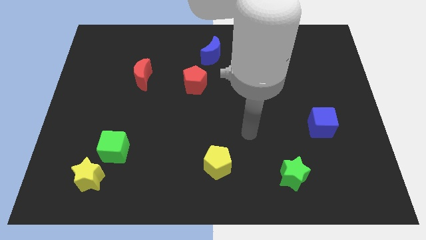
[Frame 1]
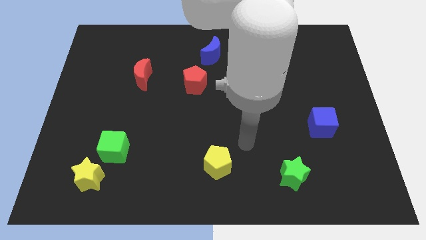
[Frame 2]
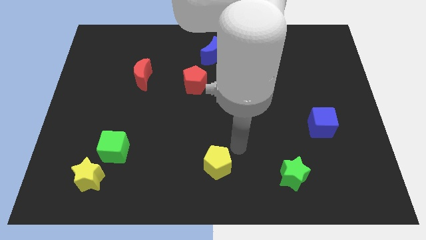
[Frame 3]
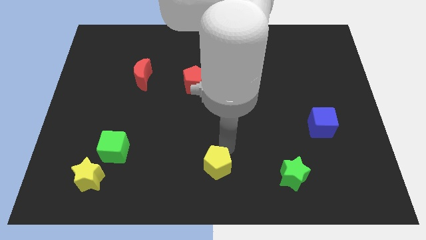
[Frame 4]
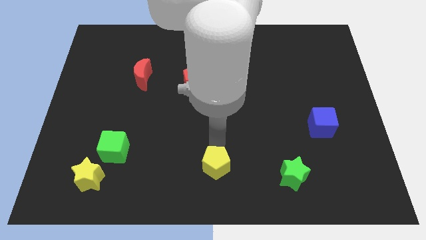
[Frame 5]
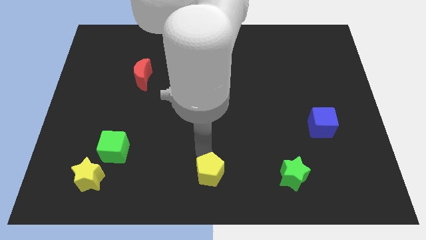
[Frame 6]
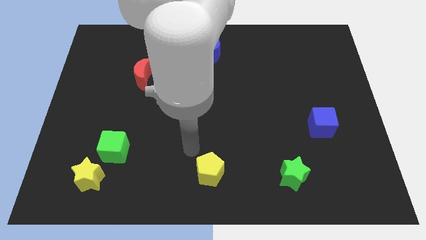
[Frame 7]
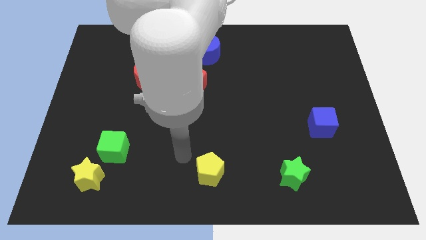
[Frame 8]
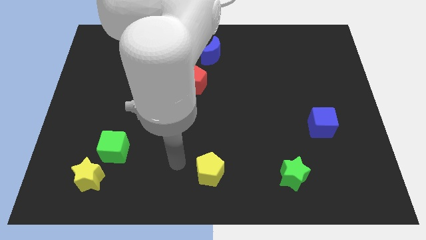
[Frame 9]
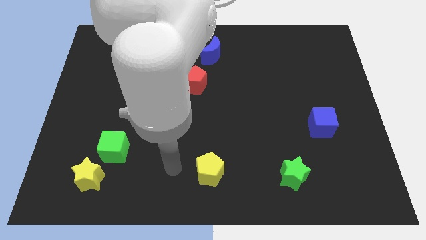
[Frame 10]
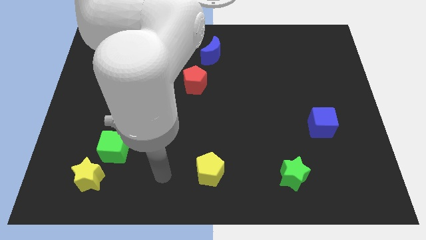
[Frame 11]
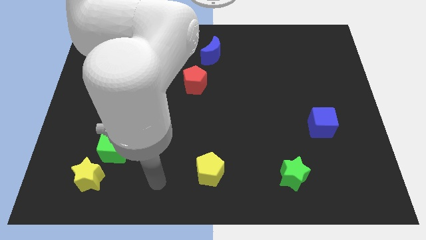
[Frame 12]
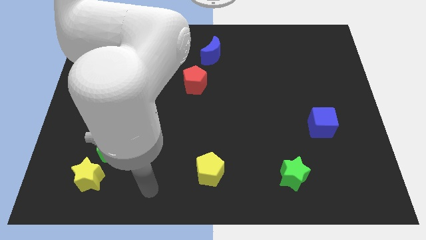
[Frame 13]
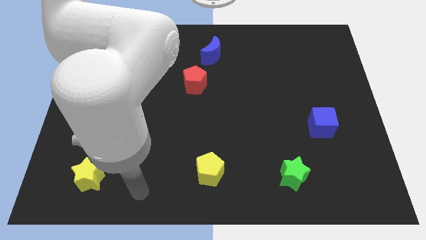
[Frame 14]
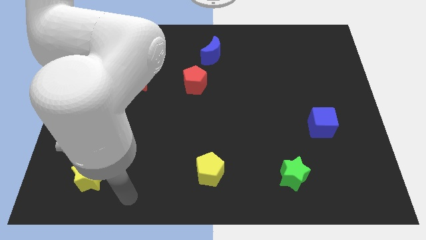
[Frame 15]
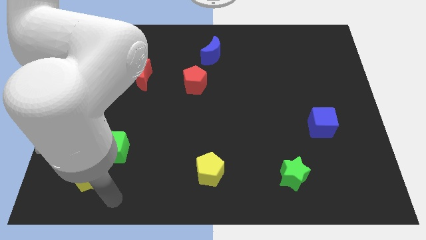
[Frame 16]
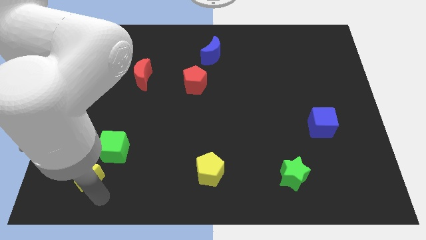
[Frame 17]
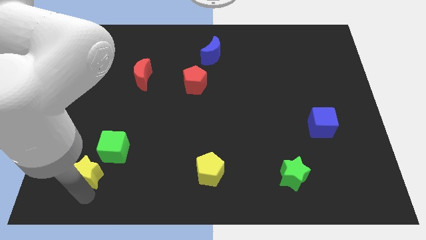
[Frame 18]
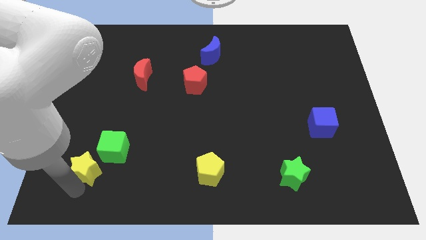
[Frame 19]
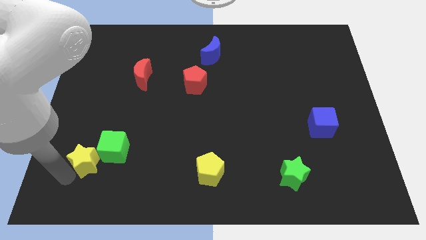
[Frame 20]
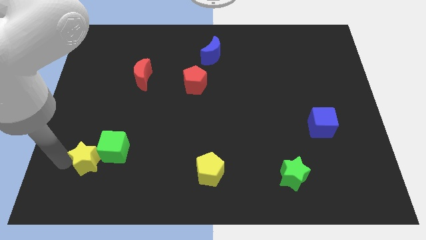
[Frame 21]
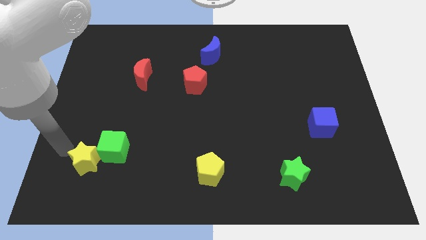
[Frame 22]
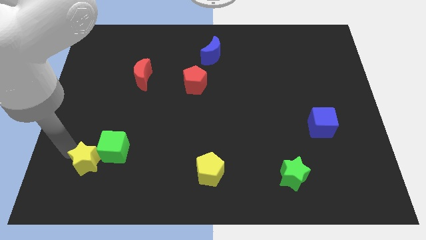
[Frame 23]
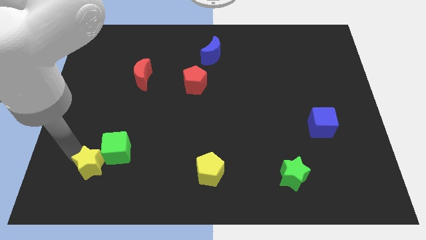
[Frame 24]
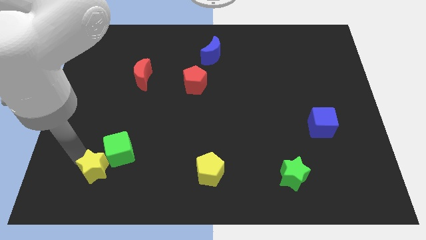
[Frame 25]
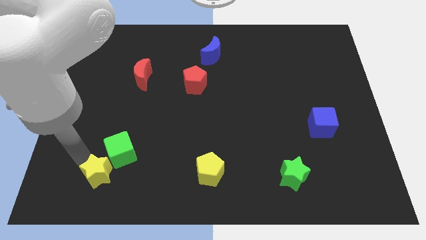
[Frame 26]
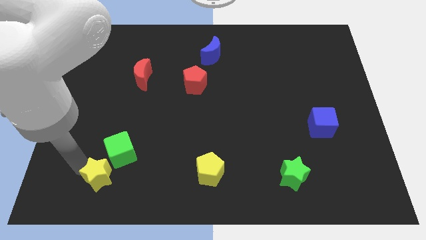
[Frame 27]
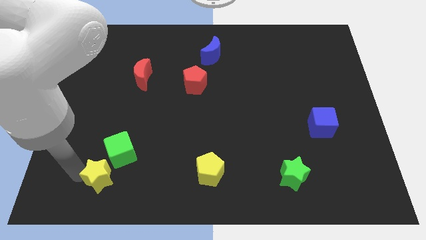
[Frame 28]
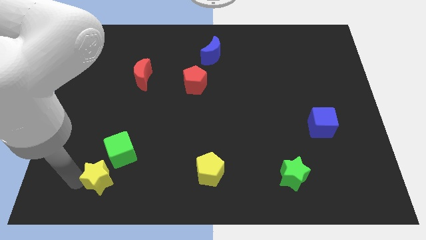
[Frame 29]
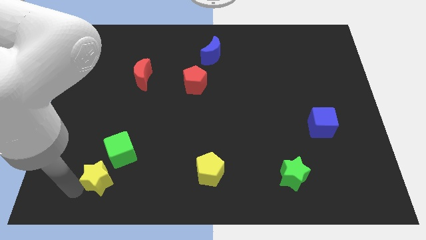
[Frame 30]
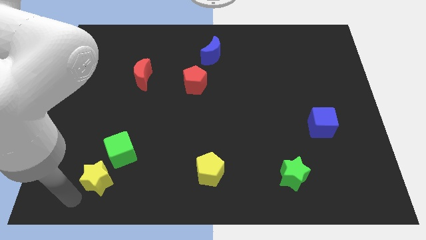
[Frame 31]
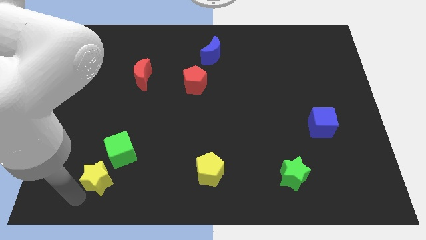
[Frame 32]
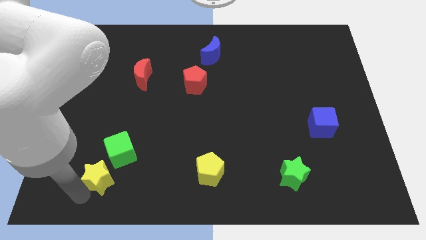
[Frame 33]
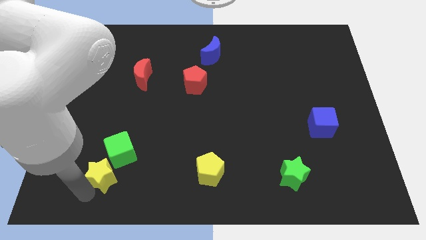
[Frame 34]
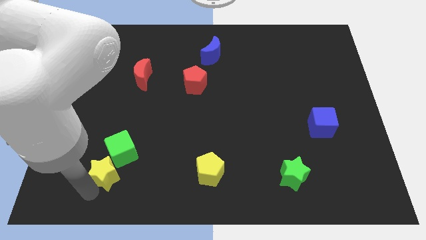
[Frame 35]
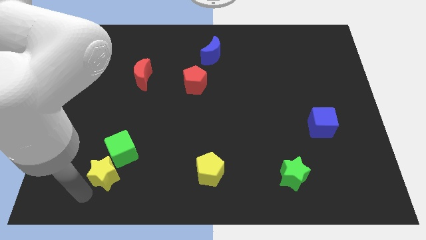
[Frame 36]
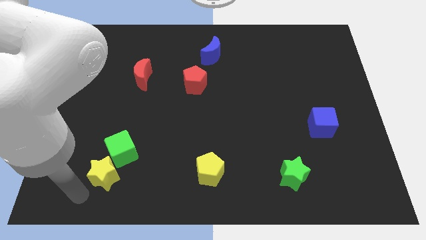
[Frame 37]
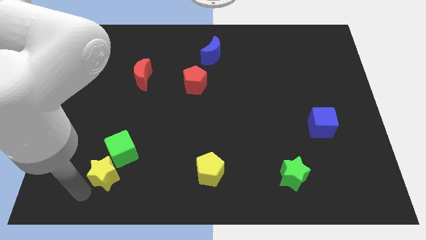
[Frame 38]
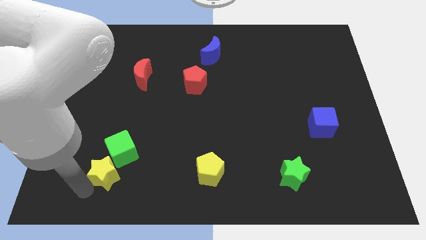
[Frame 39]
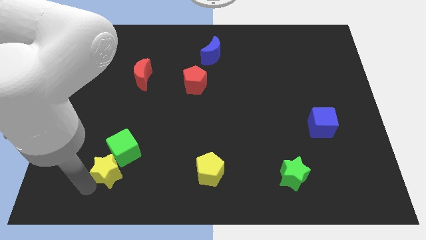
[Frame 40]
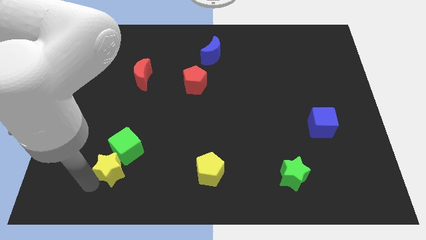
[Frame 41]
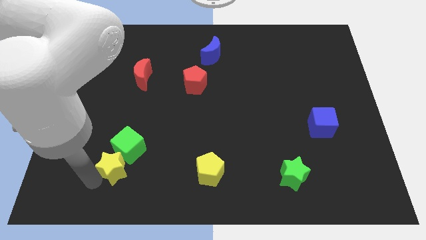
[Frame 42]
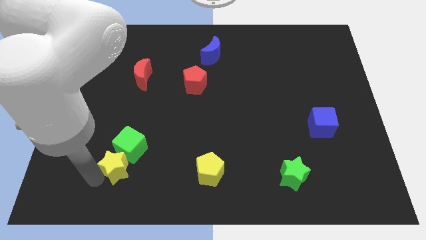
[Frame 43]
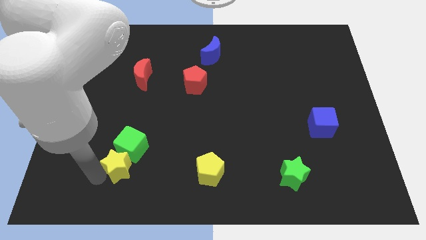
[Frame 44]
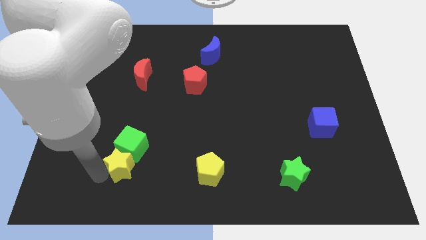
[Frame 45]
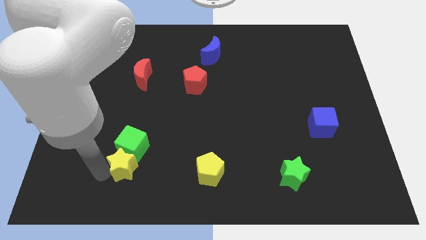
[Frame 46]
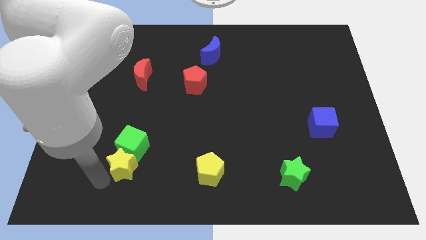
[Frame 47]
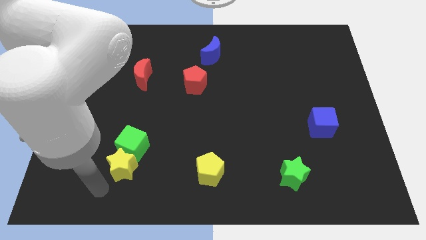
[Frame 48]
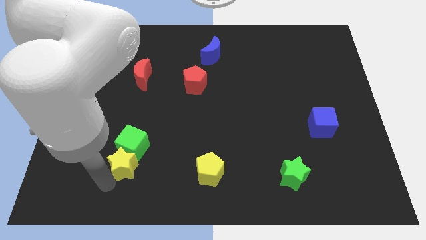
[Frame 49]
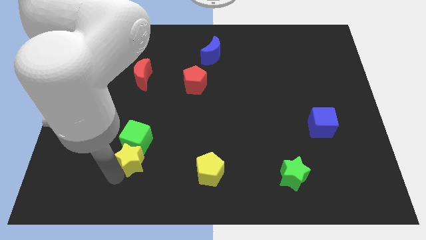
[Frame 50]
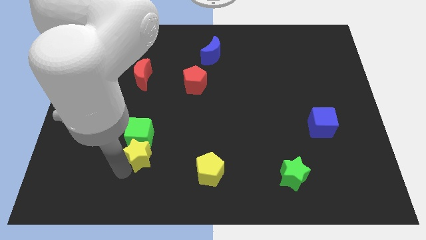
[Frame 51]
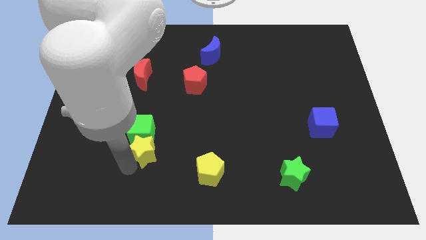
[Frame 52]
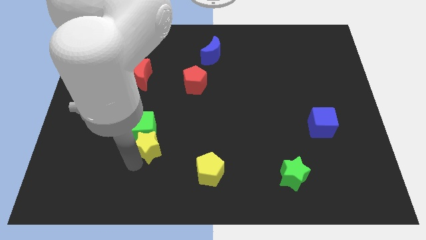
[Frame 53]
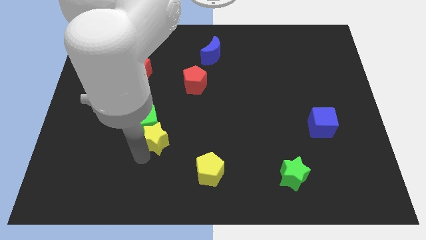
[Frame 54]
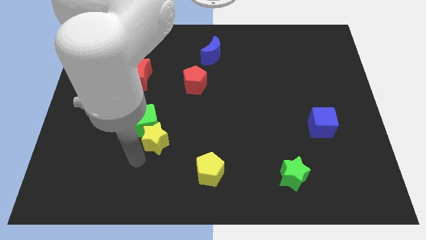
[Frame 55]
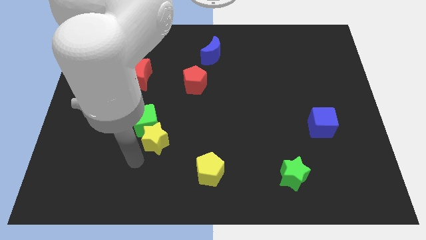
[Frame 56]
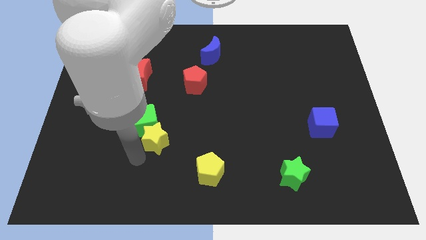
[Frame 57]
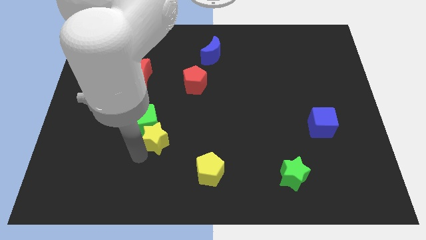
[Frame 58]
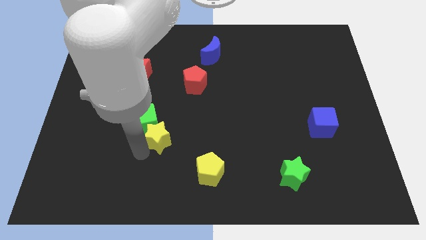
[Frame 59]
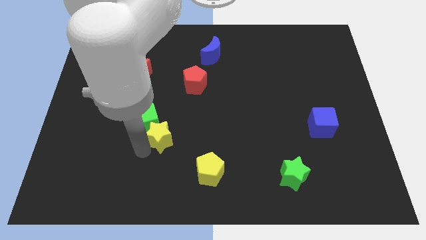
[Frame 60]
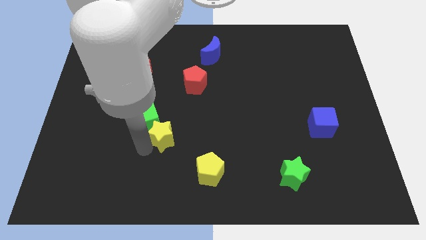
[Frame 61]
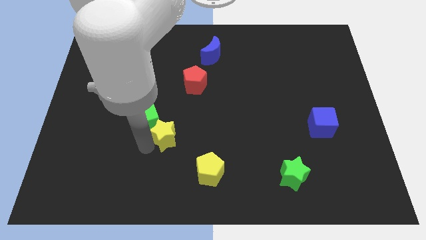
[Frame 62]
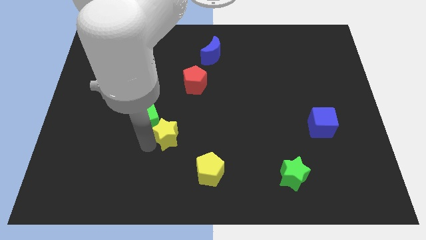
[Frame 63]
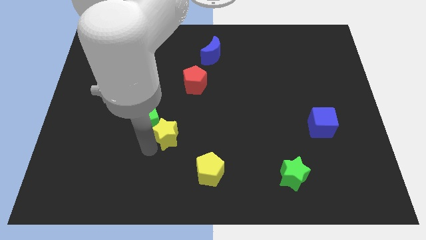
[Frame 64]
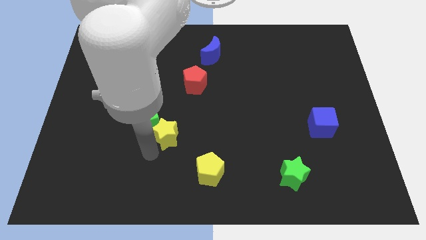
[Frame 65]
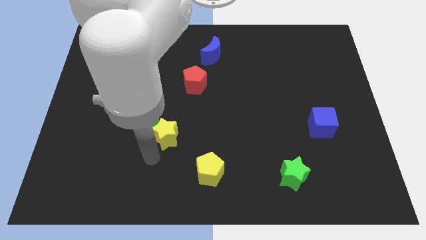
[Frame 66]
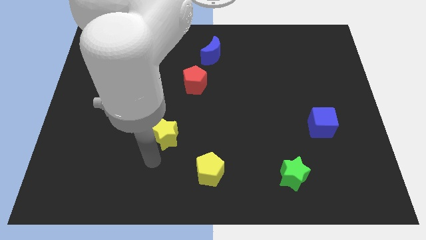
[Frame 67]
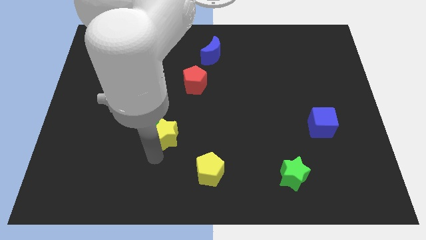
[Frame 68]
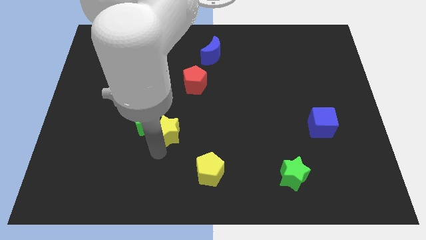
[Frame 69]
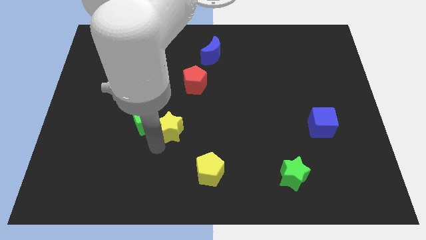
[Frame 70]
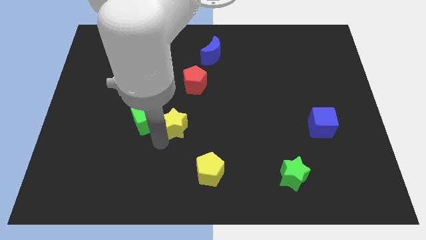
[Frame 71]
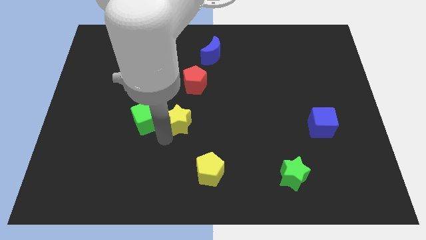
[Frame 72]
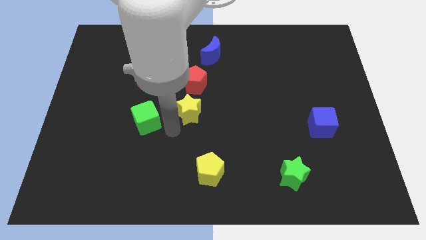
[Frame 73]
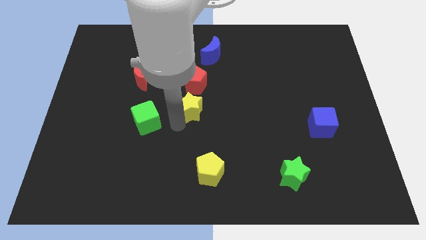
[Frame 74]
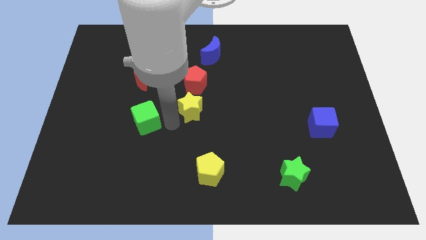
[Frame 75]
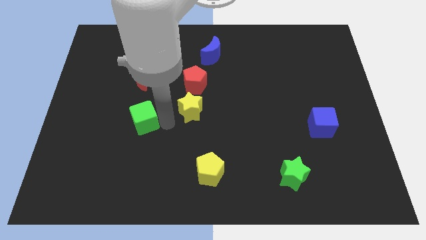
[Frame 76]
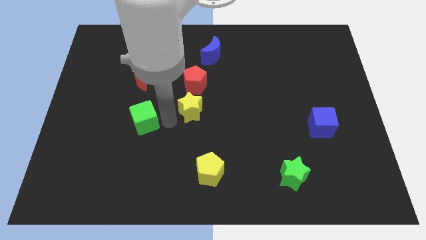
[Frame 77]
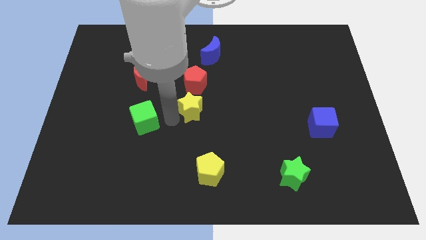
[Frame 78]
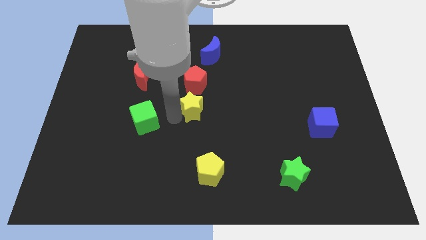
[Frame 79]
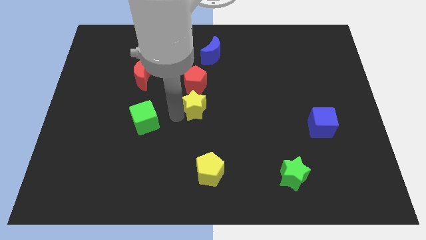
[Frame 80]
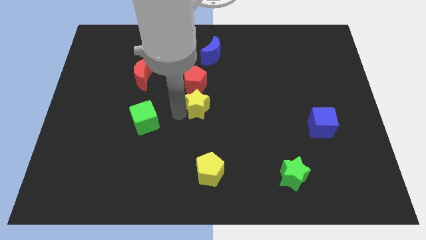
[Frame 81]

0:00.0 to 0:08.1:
push the yellow star to the bottom right side of the red pentagon
